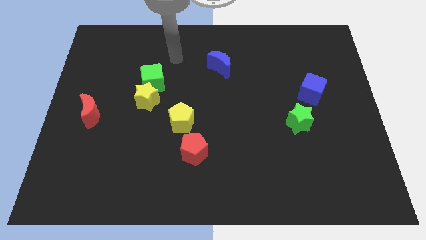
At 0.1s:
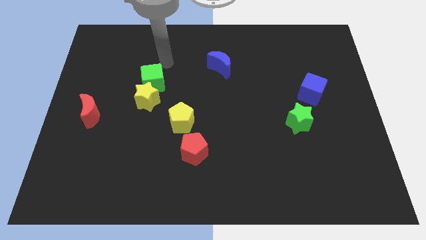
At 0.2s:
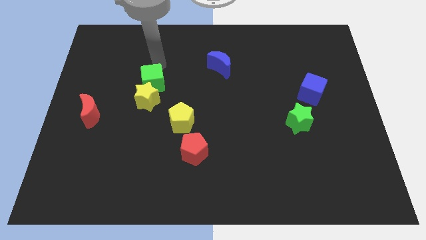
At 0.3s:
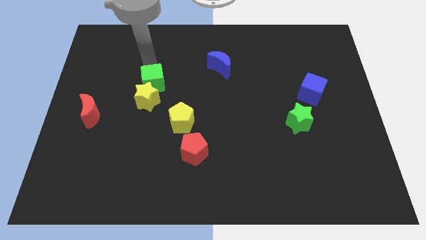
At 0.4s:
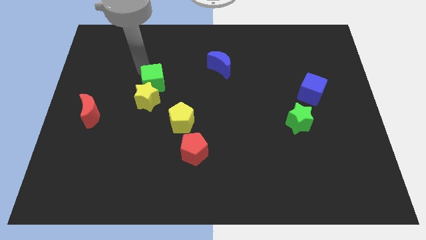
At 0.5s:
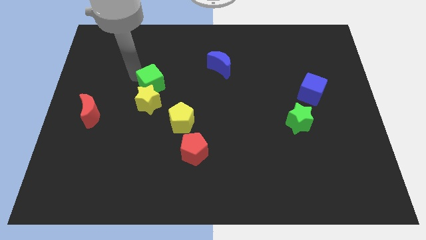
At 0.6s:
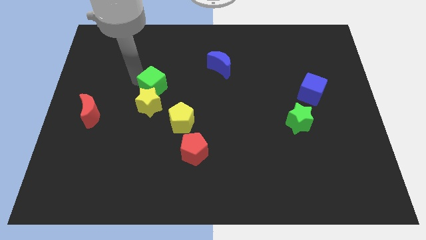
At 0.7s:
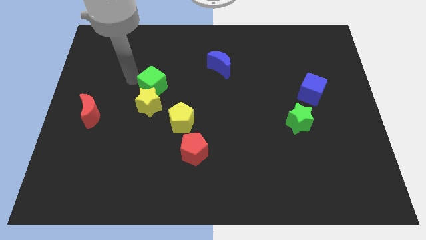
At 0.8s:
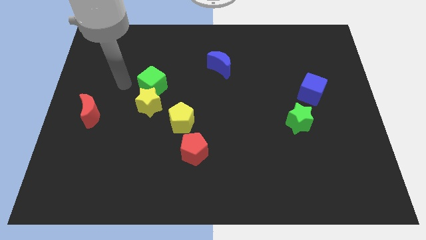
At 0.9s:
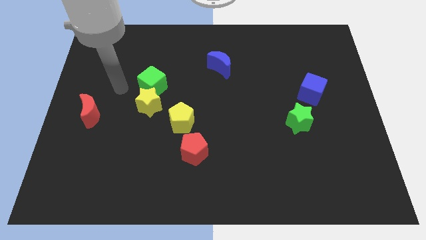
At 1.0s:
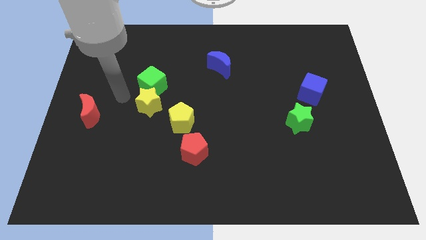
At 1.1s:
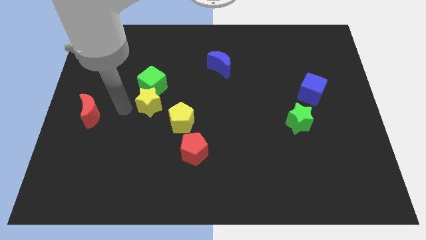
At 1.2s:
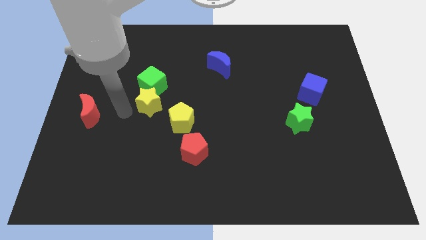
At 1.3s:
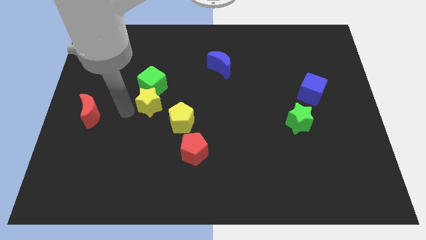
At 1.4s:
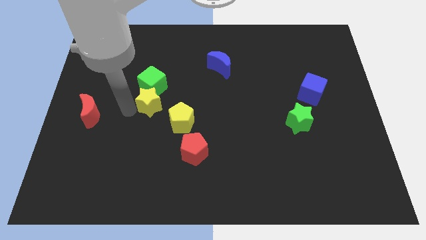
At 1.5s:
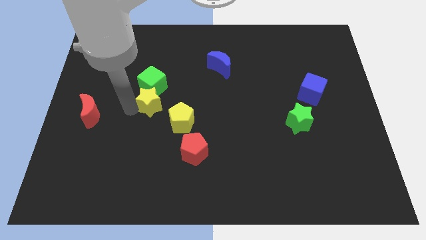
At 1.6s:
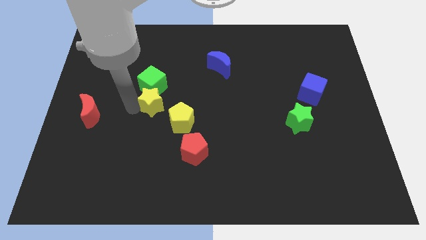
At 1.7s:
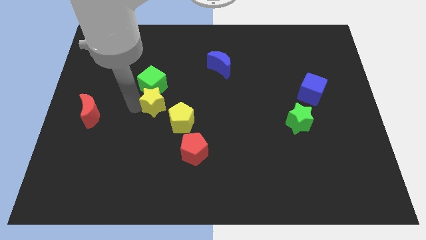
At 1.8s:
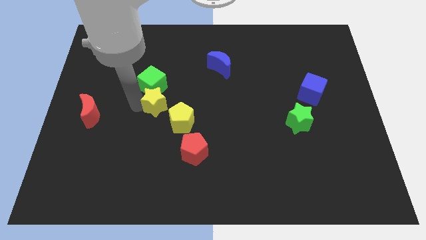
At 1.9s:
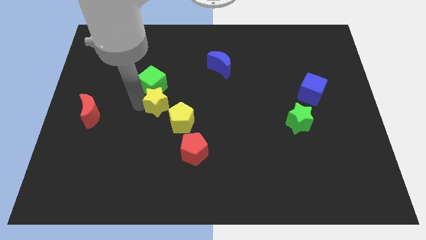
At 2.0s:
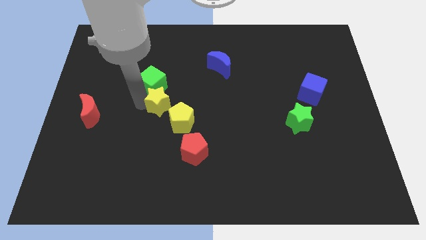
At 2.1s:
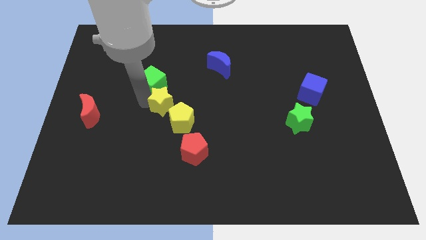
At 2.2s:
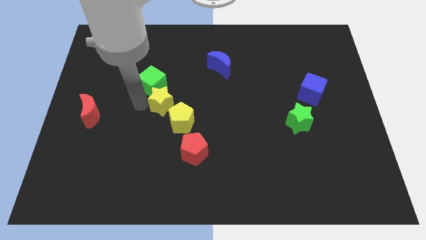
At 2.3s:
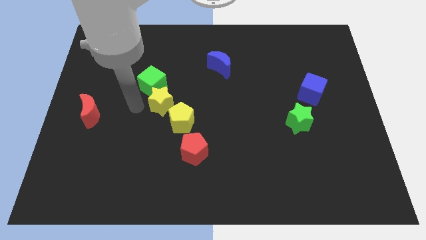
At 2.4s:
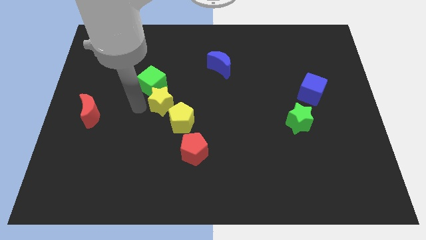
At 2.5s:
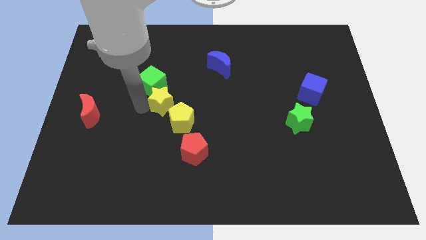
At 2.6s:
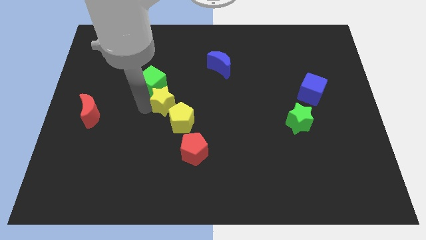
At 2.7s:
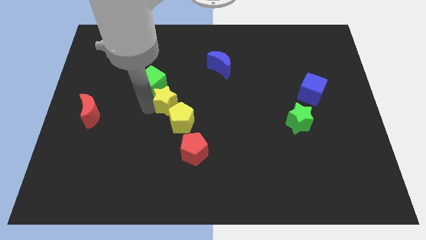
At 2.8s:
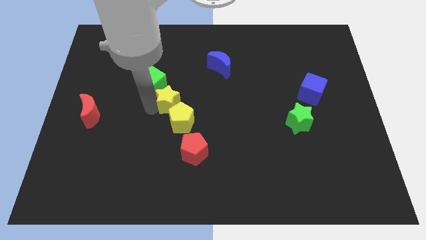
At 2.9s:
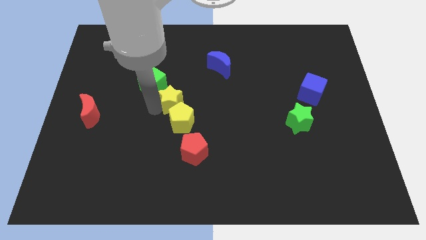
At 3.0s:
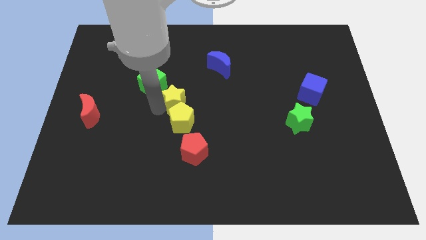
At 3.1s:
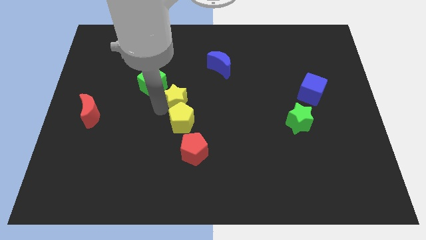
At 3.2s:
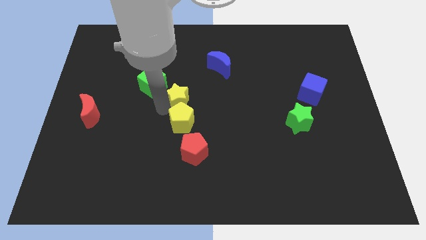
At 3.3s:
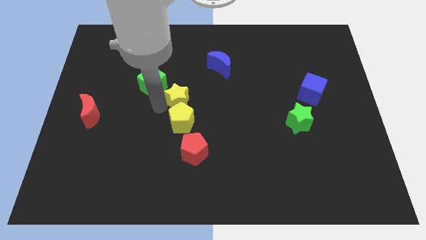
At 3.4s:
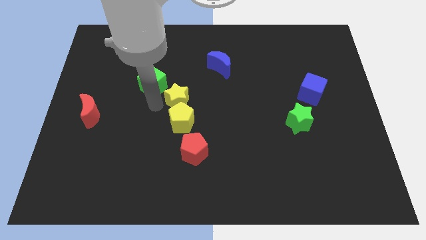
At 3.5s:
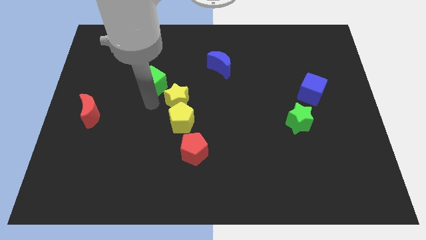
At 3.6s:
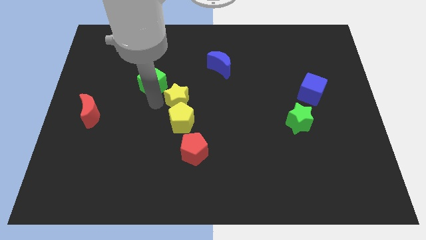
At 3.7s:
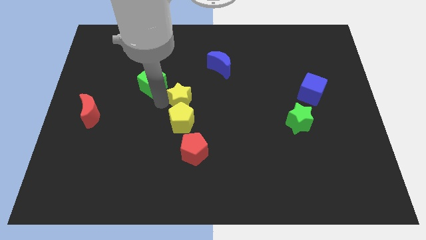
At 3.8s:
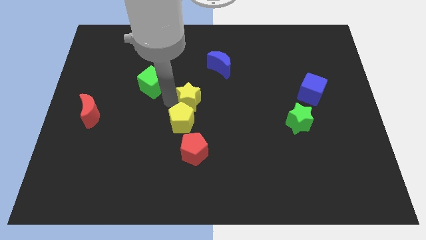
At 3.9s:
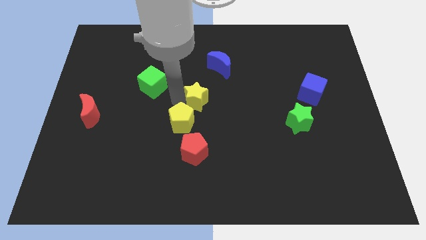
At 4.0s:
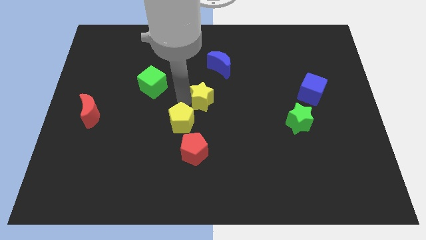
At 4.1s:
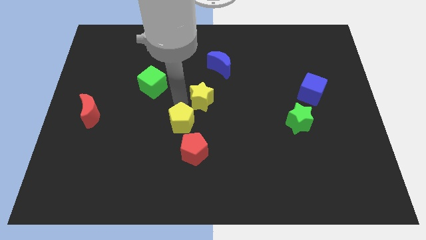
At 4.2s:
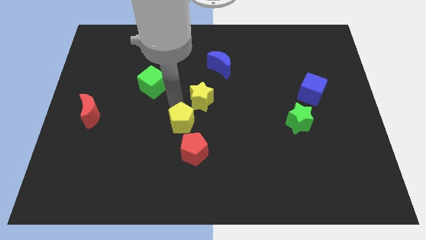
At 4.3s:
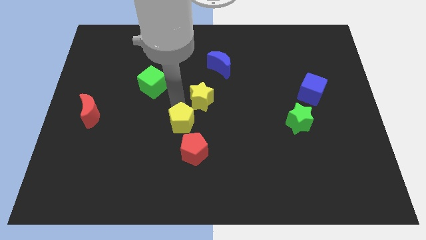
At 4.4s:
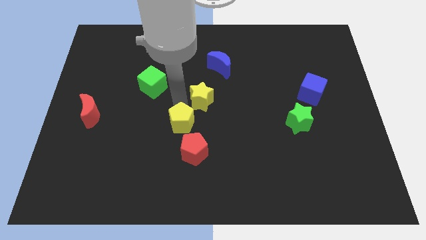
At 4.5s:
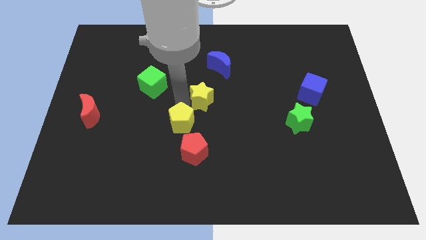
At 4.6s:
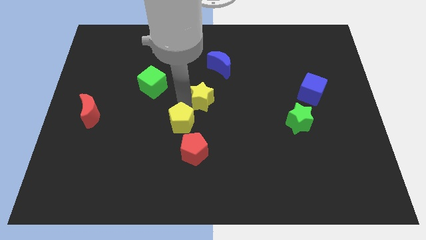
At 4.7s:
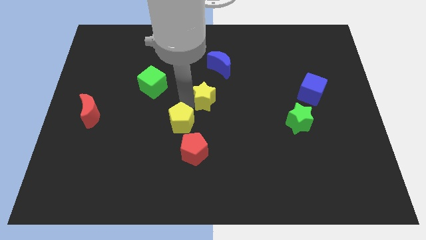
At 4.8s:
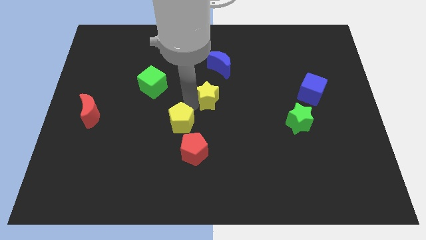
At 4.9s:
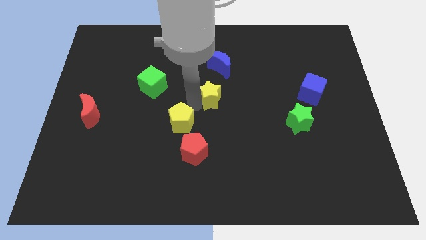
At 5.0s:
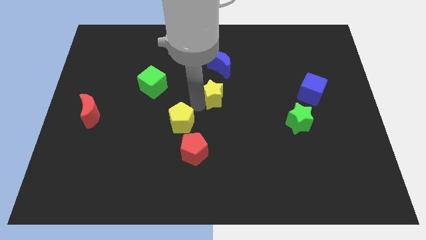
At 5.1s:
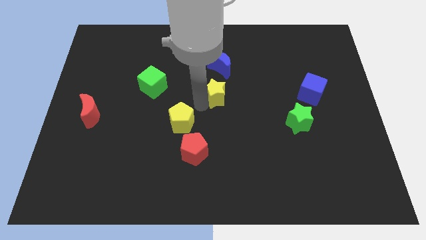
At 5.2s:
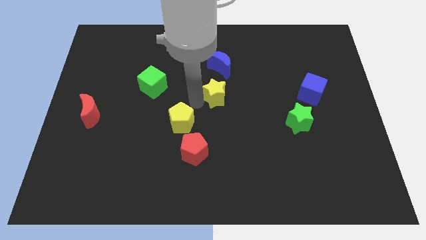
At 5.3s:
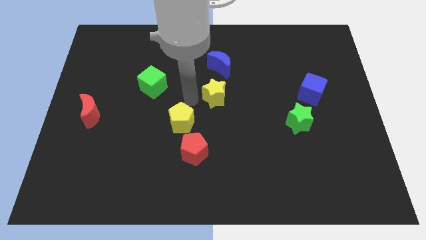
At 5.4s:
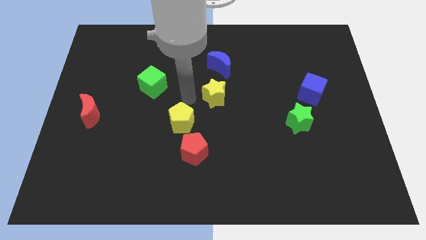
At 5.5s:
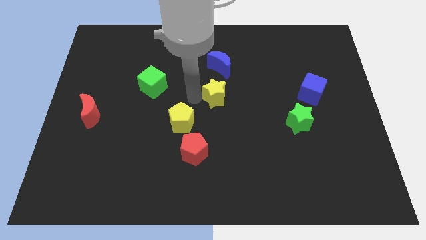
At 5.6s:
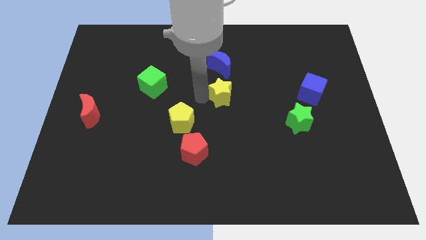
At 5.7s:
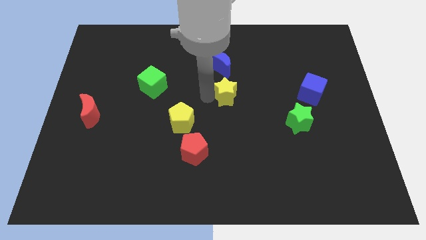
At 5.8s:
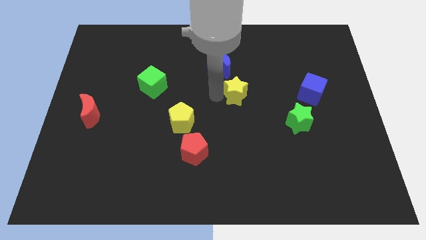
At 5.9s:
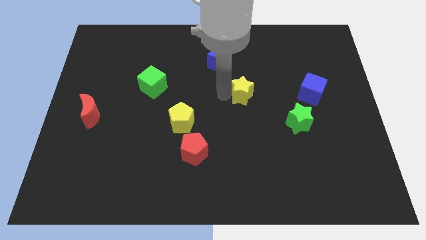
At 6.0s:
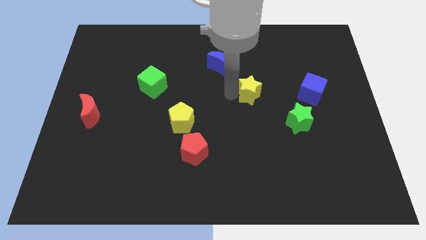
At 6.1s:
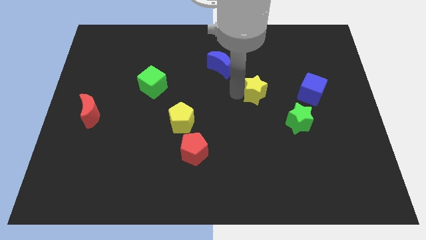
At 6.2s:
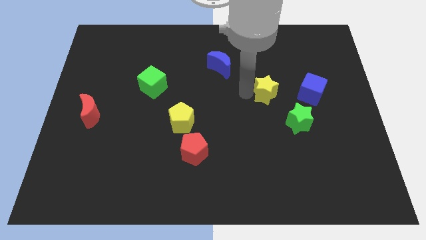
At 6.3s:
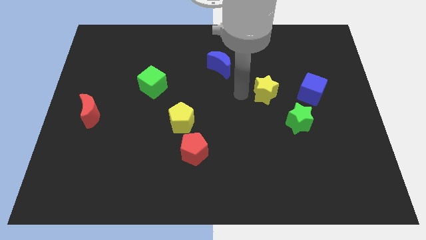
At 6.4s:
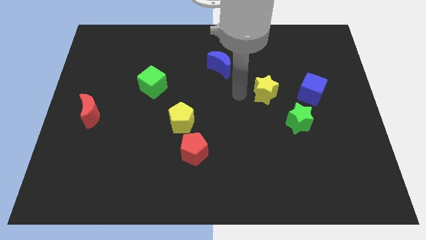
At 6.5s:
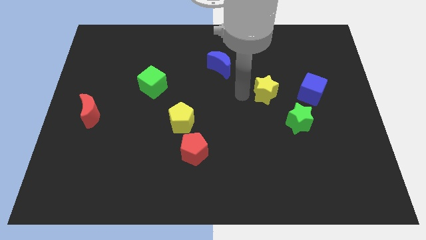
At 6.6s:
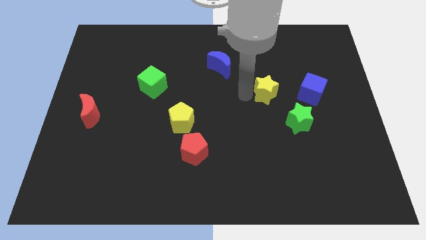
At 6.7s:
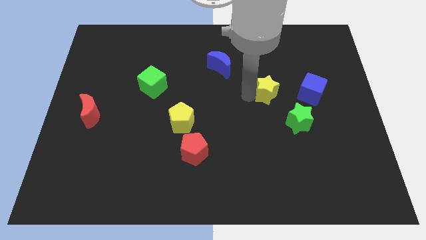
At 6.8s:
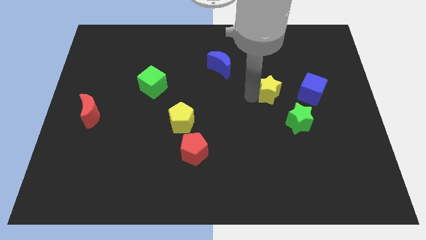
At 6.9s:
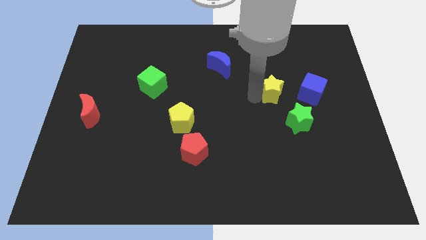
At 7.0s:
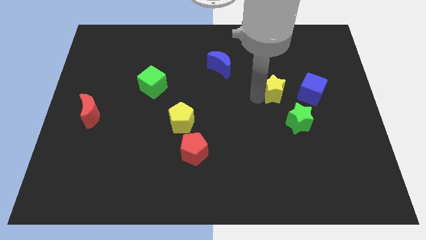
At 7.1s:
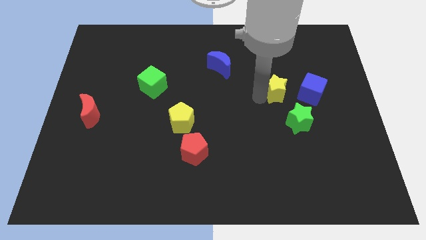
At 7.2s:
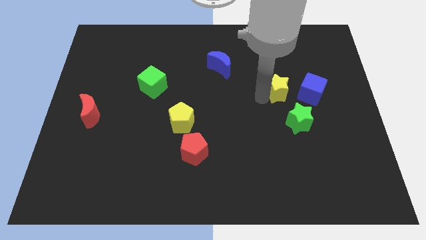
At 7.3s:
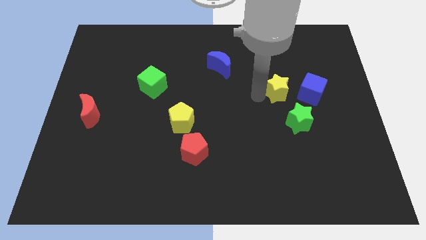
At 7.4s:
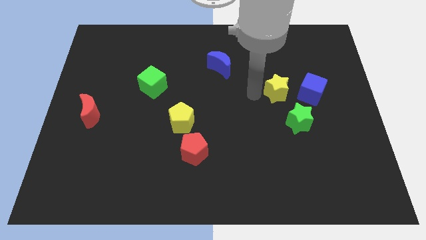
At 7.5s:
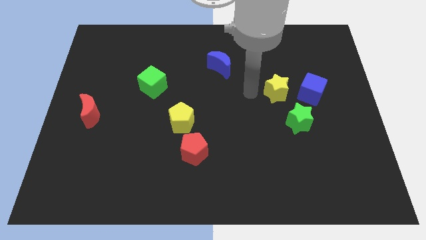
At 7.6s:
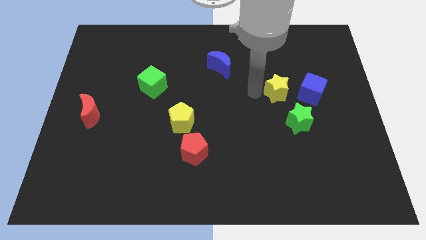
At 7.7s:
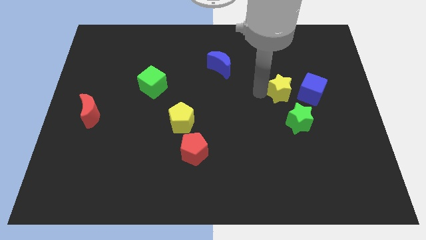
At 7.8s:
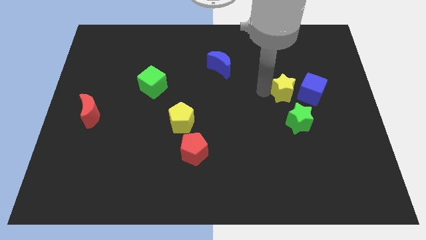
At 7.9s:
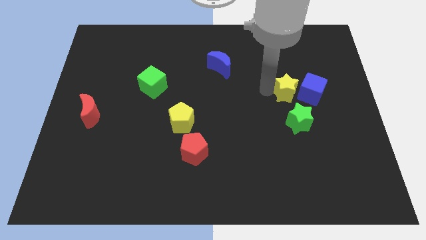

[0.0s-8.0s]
push the yellow star close to the blue cube

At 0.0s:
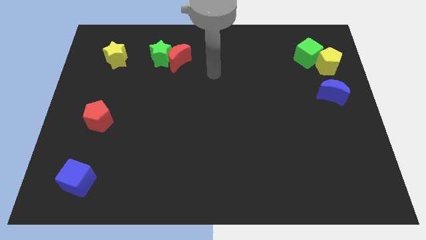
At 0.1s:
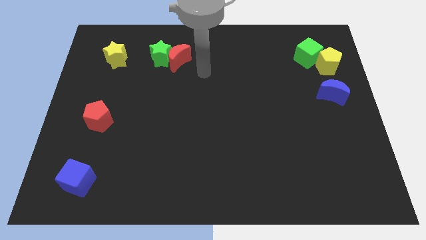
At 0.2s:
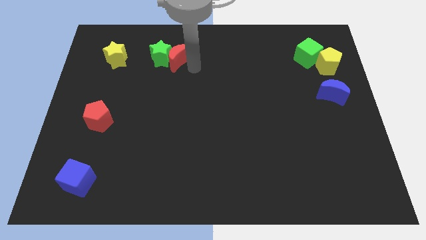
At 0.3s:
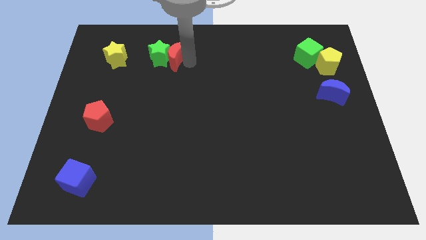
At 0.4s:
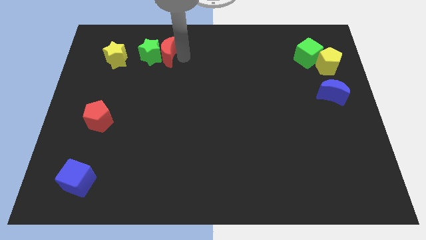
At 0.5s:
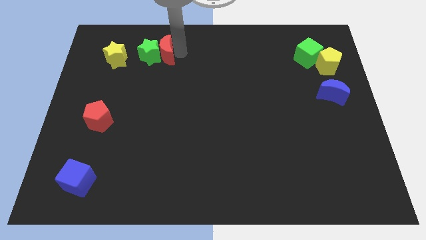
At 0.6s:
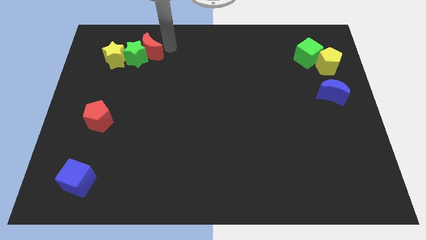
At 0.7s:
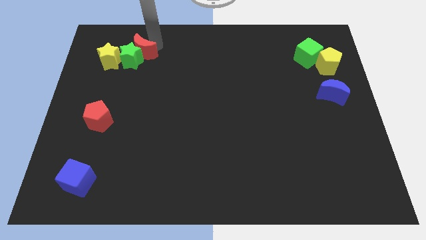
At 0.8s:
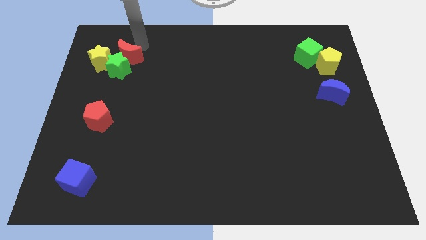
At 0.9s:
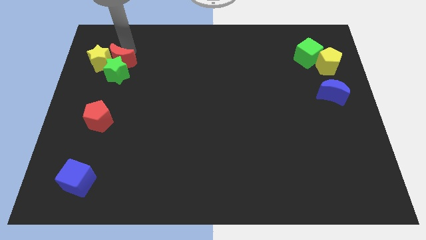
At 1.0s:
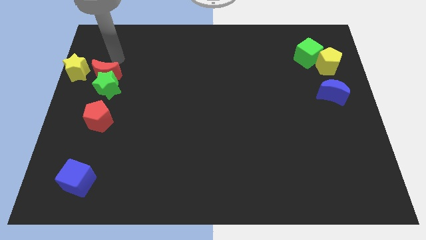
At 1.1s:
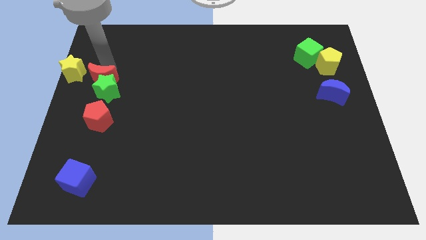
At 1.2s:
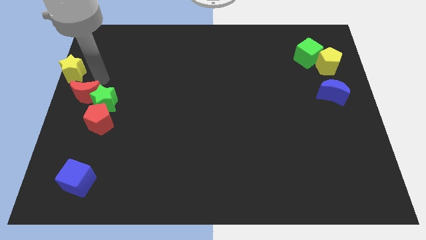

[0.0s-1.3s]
slide the green star to the red pentagon
